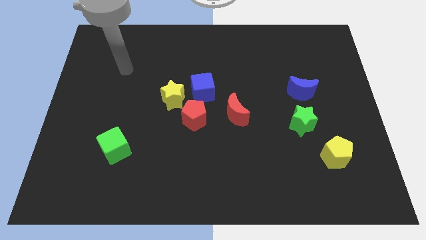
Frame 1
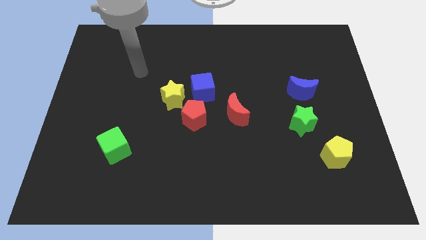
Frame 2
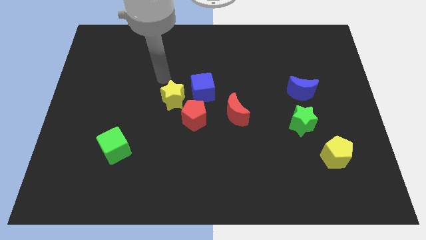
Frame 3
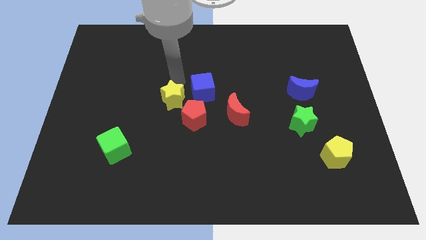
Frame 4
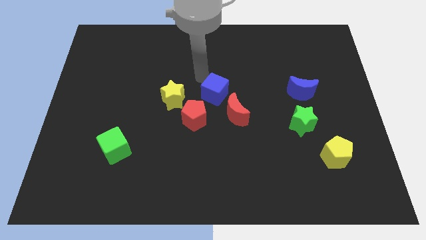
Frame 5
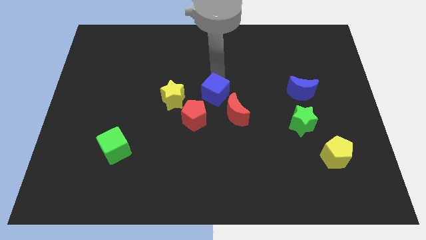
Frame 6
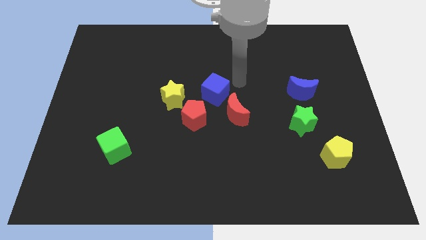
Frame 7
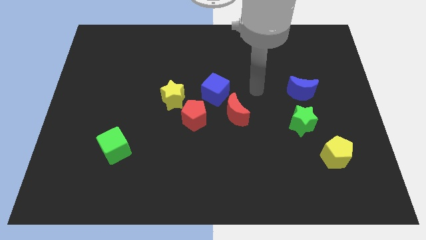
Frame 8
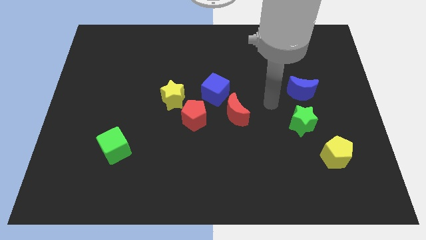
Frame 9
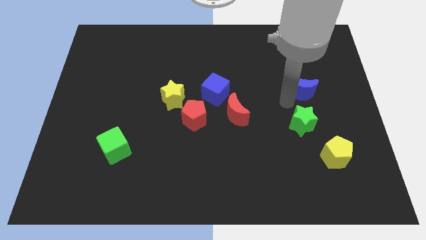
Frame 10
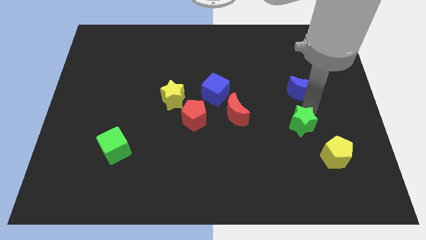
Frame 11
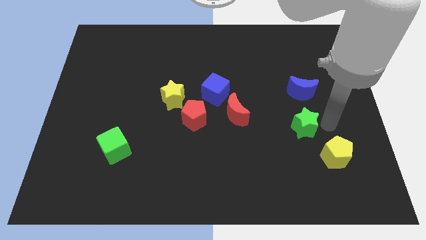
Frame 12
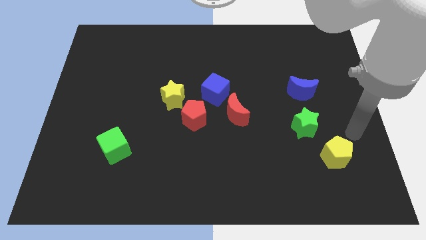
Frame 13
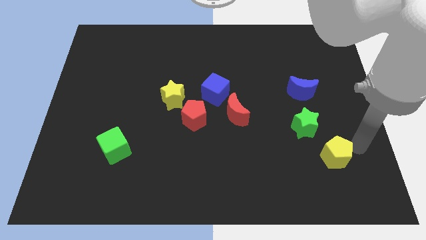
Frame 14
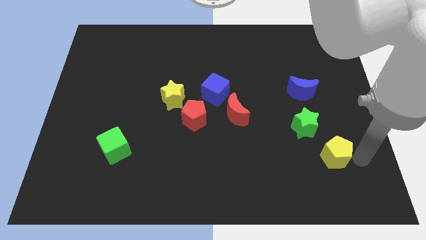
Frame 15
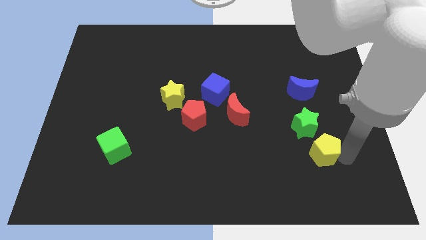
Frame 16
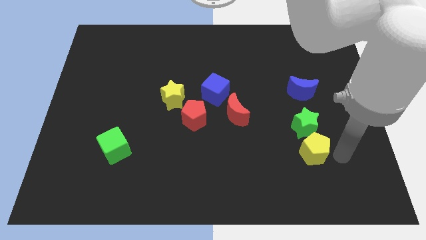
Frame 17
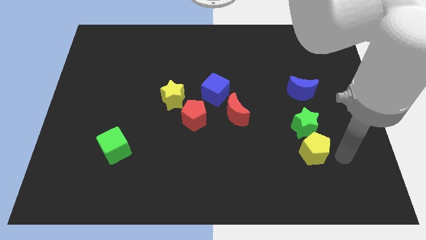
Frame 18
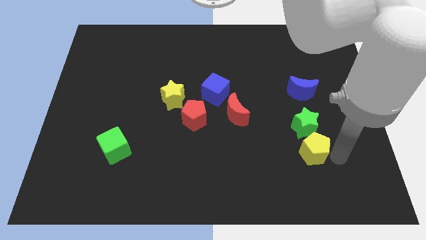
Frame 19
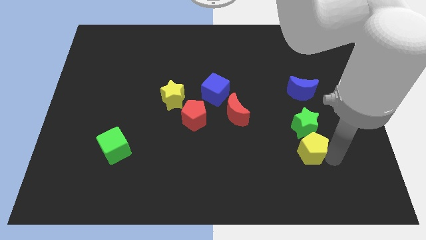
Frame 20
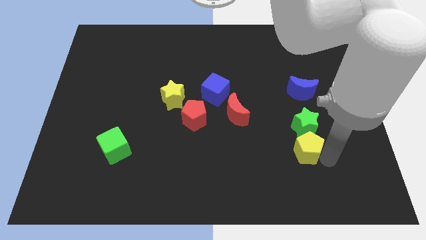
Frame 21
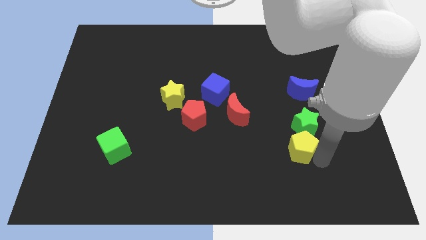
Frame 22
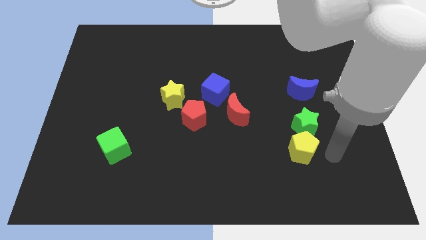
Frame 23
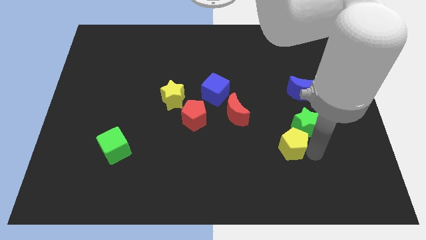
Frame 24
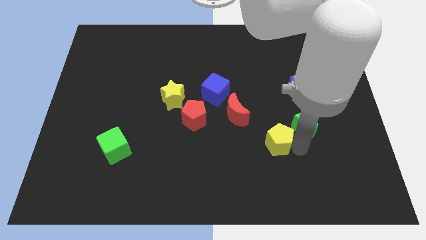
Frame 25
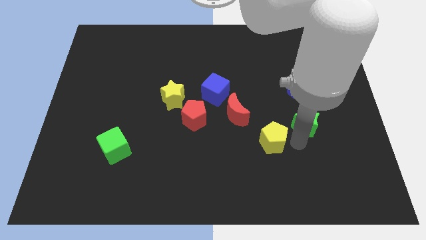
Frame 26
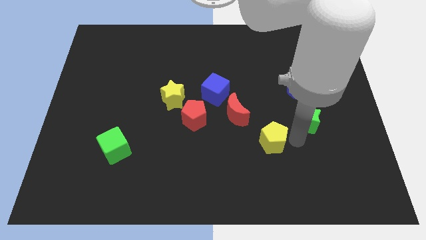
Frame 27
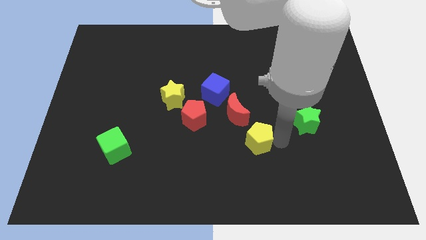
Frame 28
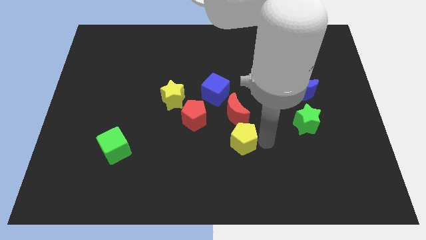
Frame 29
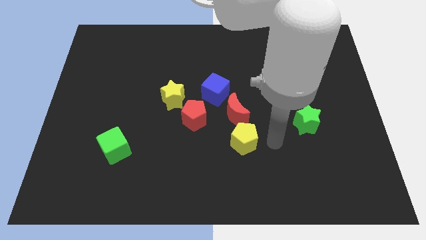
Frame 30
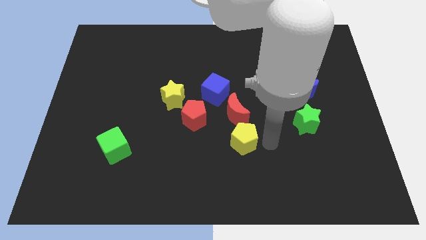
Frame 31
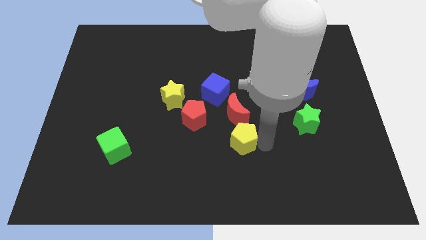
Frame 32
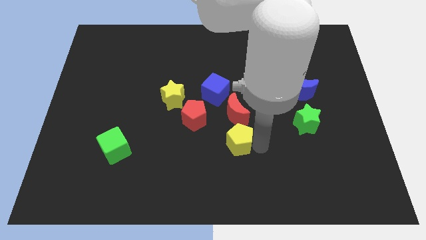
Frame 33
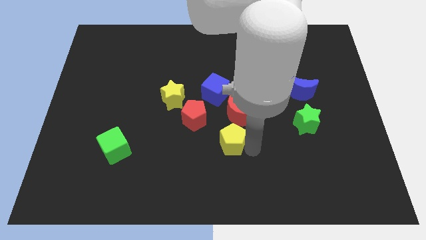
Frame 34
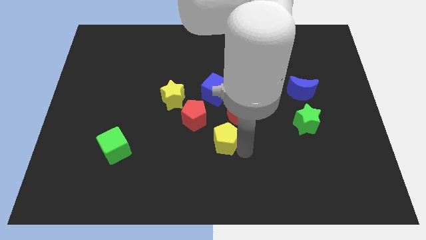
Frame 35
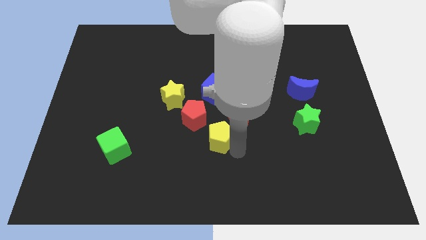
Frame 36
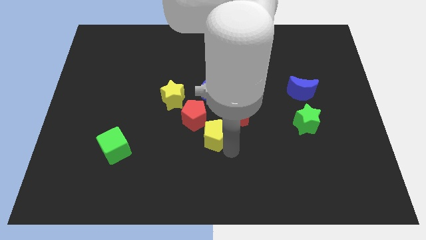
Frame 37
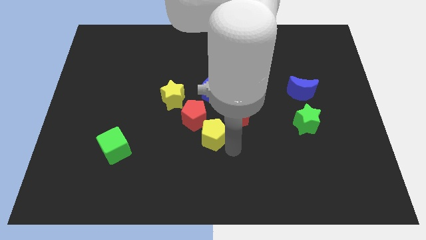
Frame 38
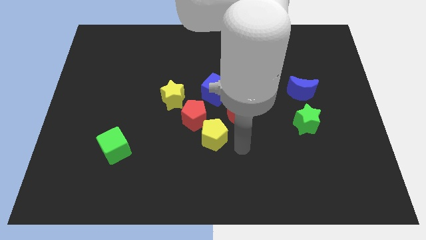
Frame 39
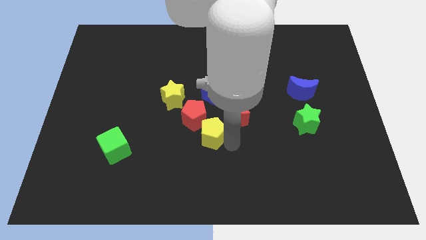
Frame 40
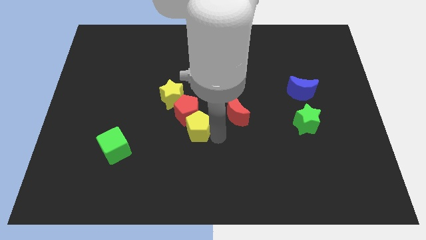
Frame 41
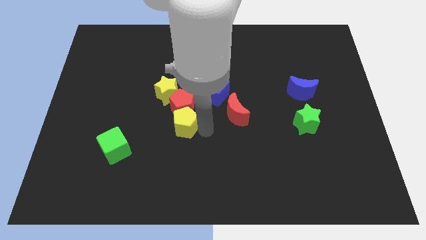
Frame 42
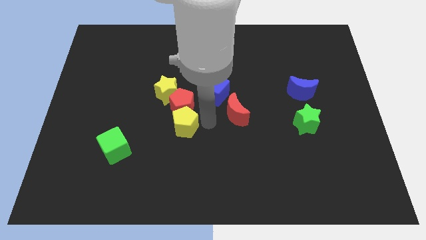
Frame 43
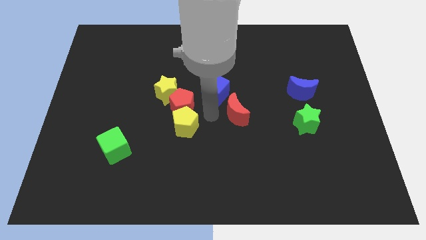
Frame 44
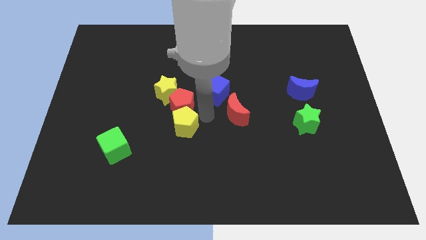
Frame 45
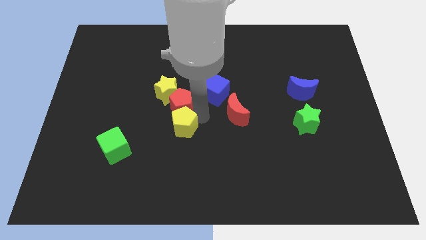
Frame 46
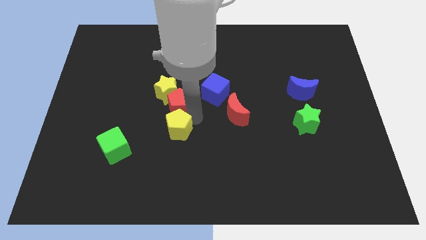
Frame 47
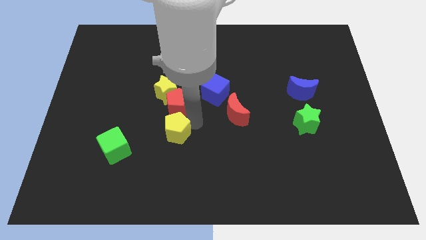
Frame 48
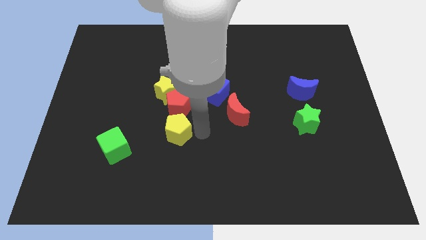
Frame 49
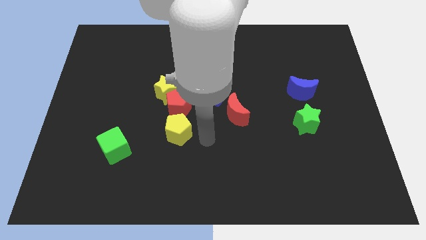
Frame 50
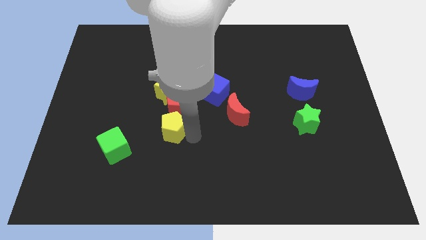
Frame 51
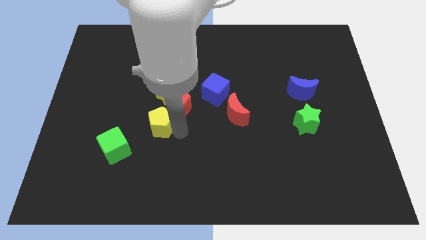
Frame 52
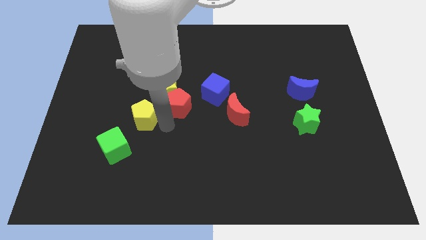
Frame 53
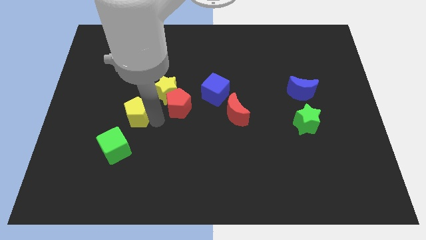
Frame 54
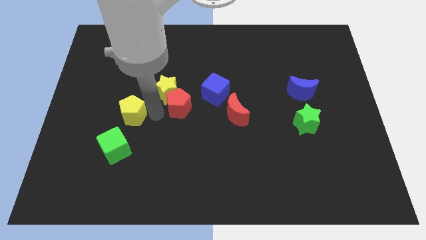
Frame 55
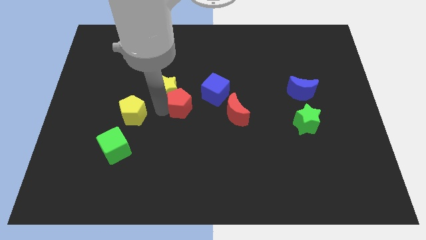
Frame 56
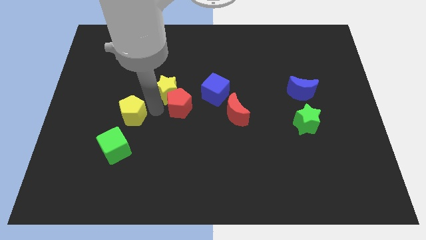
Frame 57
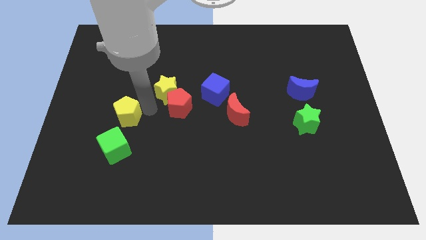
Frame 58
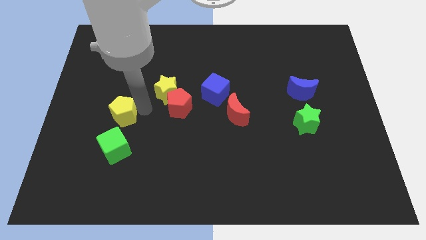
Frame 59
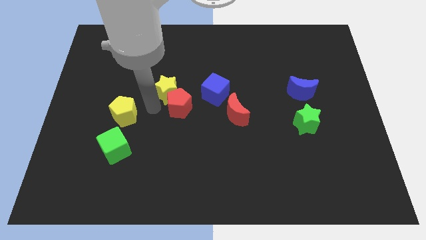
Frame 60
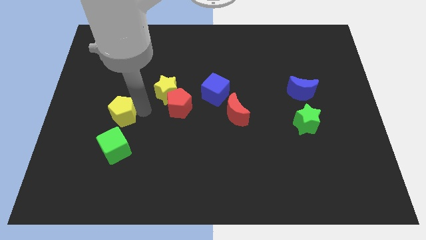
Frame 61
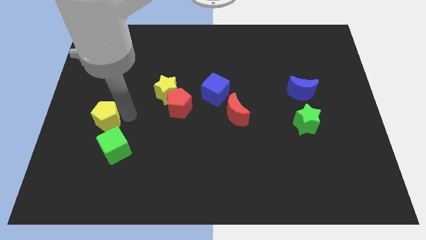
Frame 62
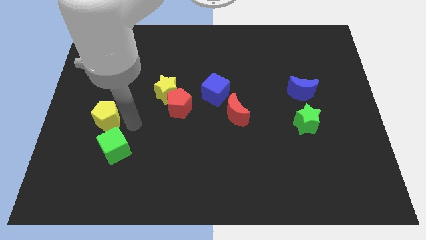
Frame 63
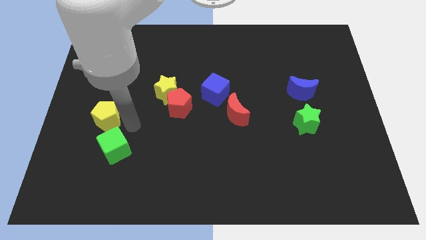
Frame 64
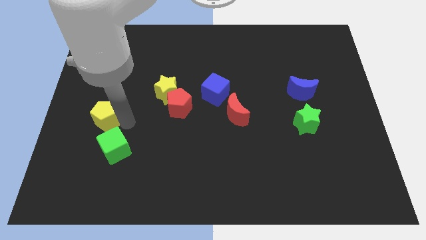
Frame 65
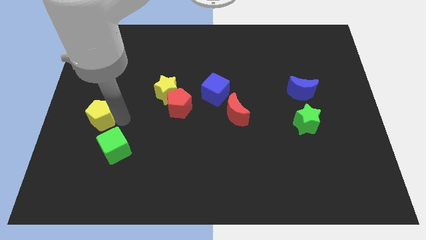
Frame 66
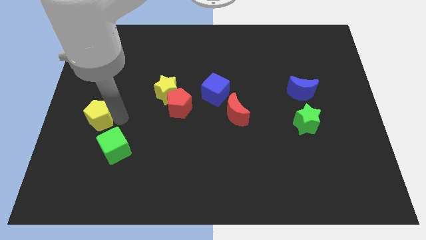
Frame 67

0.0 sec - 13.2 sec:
slide the yellow pentagon to the left side of the board
